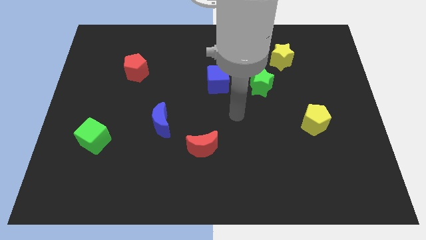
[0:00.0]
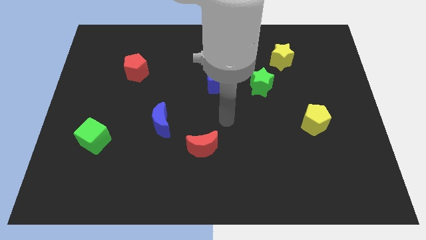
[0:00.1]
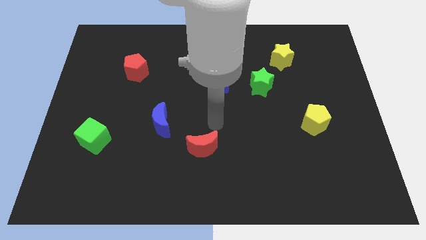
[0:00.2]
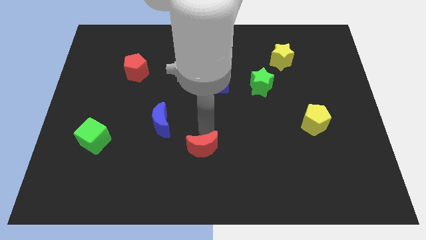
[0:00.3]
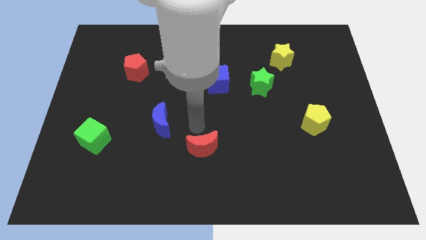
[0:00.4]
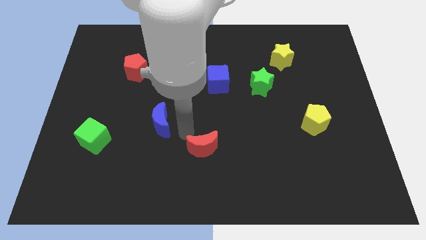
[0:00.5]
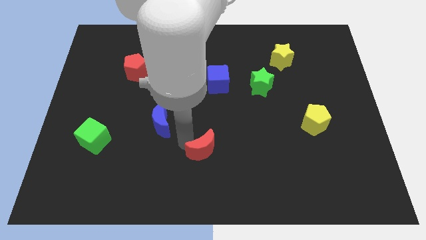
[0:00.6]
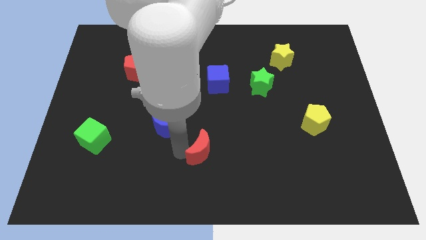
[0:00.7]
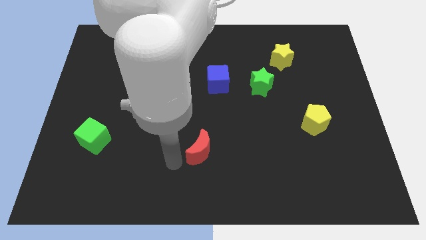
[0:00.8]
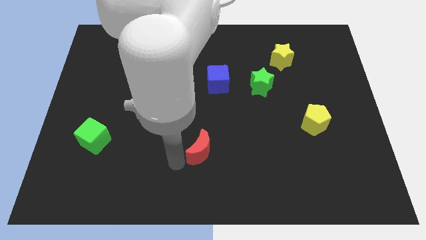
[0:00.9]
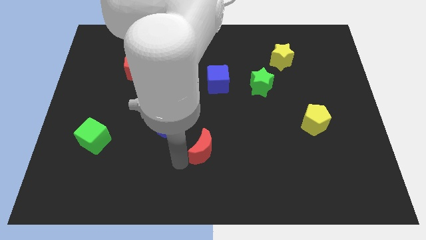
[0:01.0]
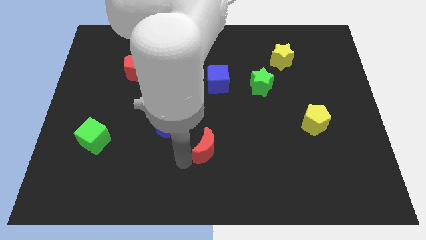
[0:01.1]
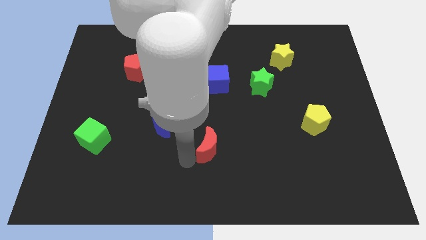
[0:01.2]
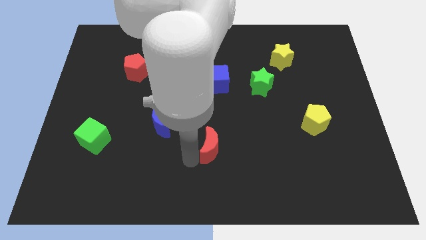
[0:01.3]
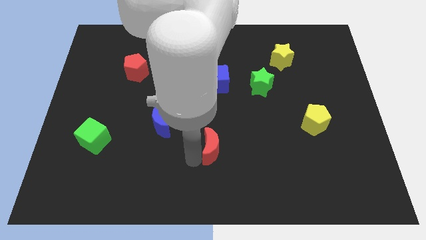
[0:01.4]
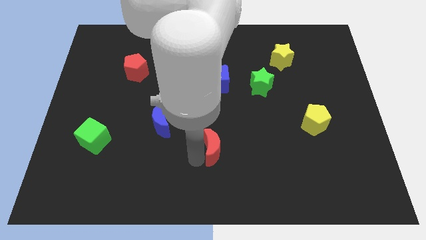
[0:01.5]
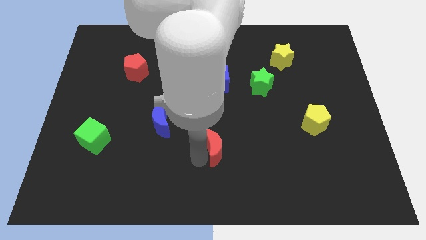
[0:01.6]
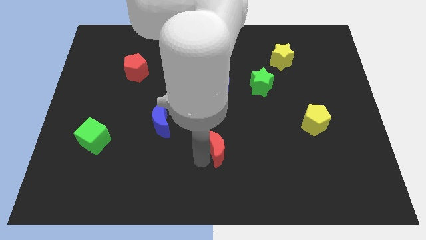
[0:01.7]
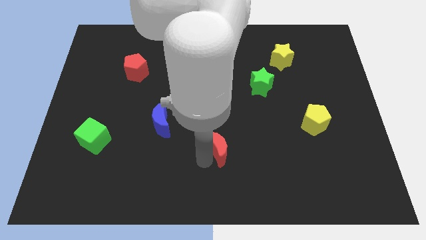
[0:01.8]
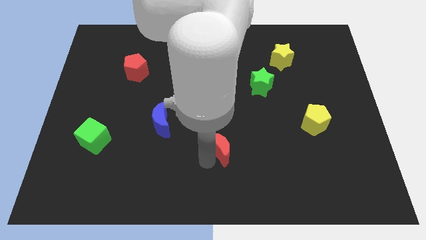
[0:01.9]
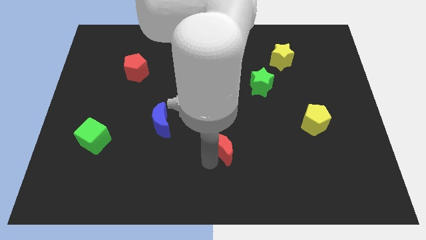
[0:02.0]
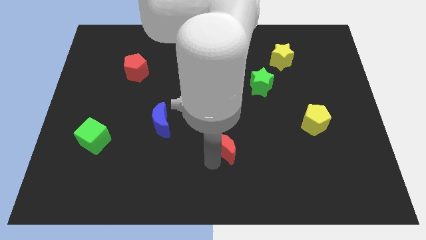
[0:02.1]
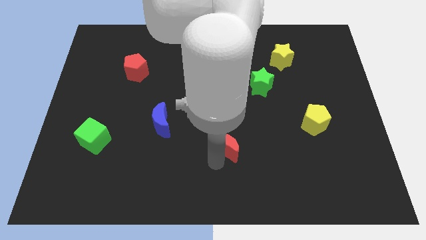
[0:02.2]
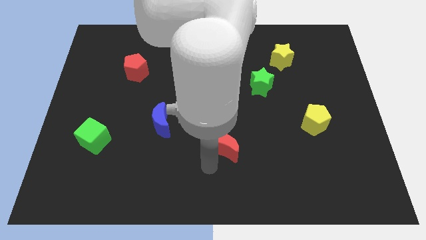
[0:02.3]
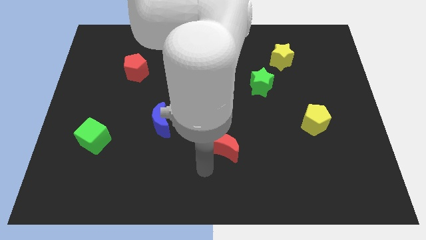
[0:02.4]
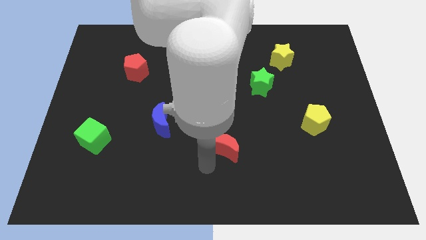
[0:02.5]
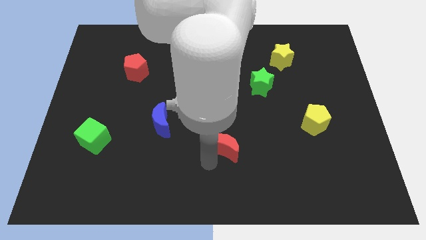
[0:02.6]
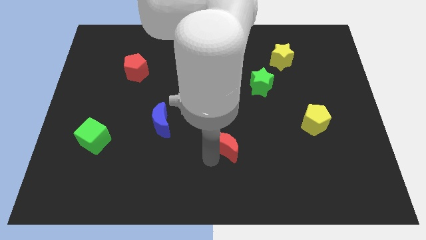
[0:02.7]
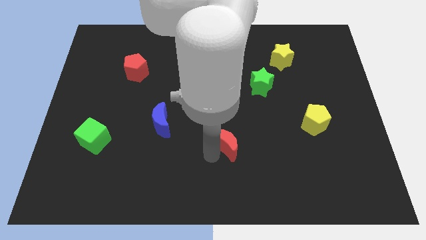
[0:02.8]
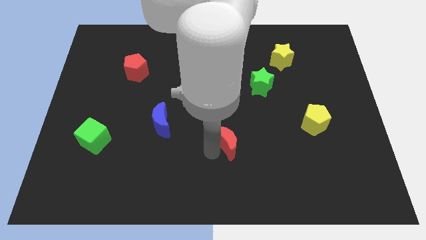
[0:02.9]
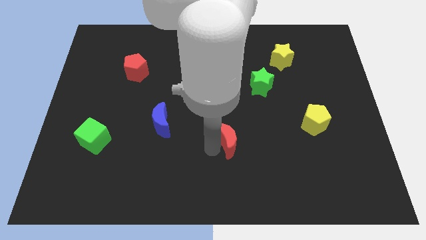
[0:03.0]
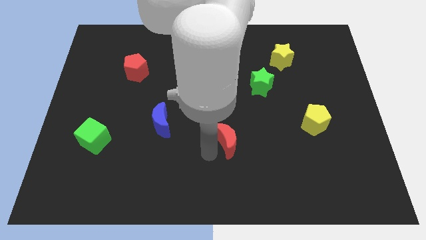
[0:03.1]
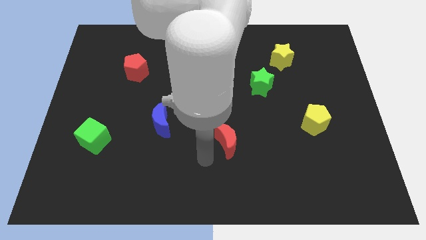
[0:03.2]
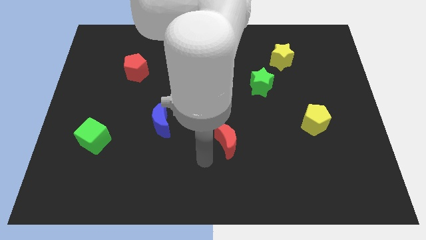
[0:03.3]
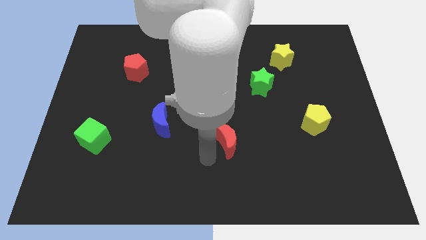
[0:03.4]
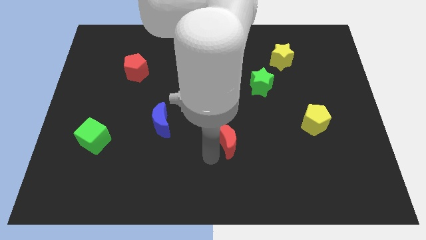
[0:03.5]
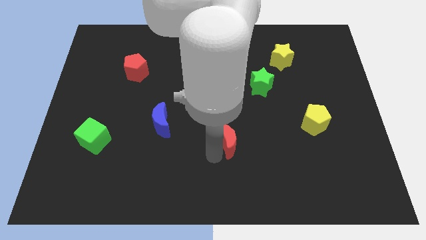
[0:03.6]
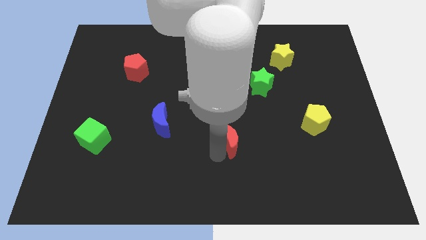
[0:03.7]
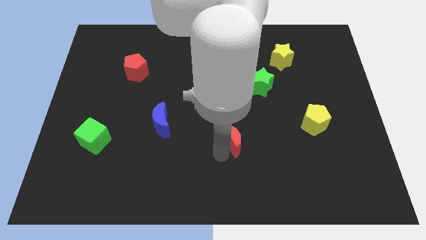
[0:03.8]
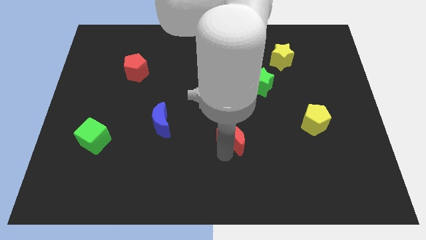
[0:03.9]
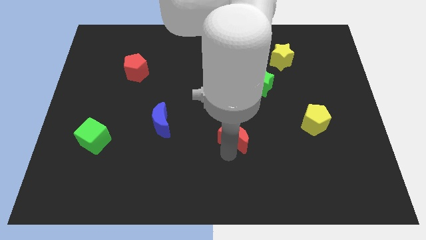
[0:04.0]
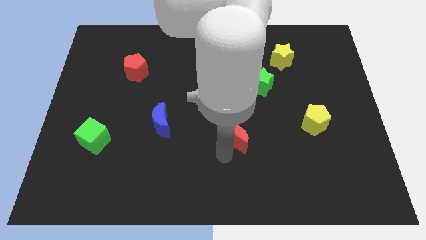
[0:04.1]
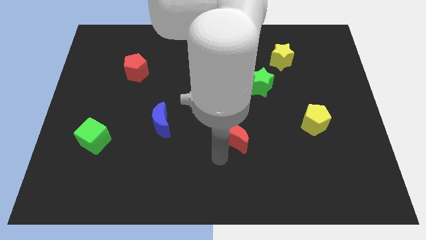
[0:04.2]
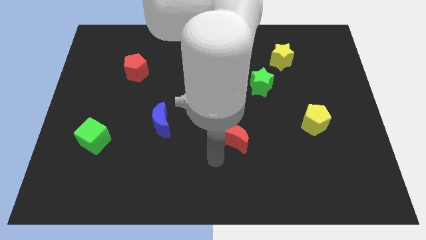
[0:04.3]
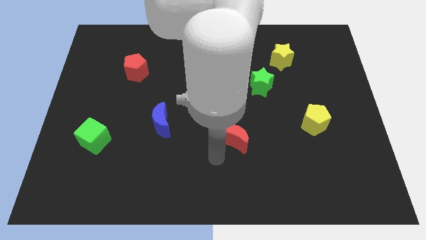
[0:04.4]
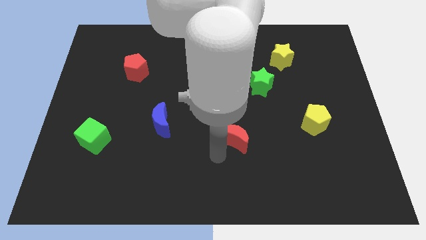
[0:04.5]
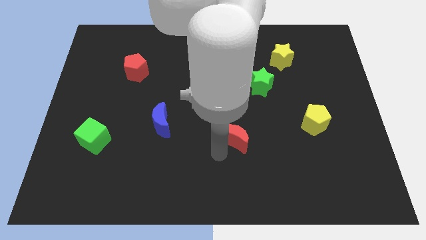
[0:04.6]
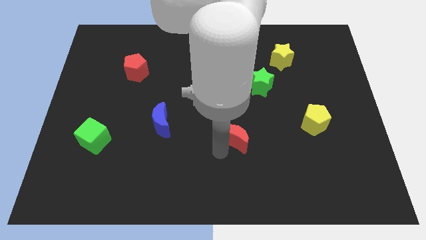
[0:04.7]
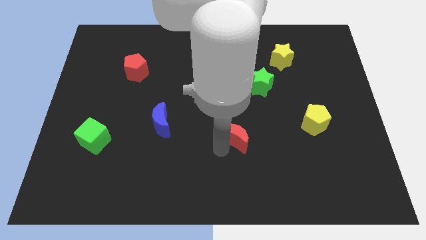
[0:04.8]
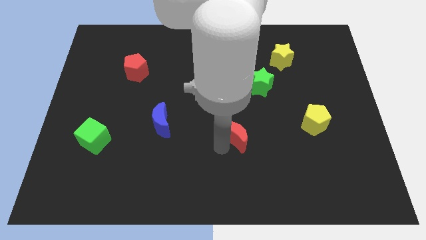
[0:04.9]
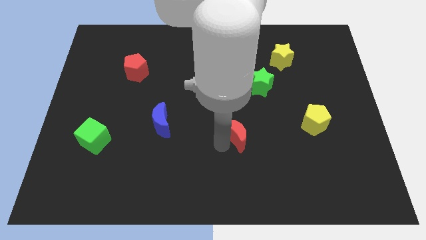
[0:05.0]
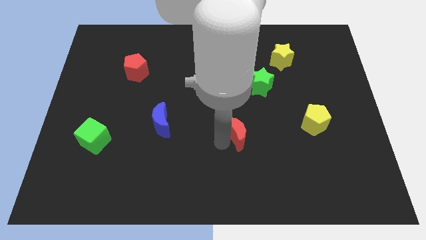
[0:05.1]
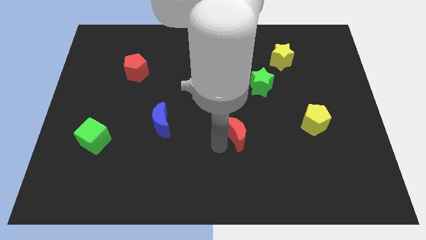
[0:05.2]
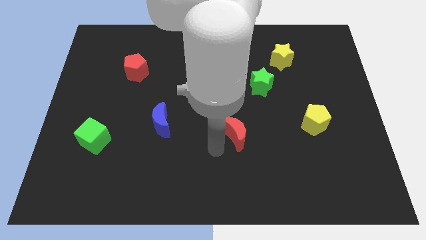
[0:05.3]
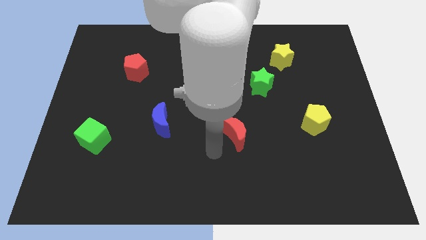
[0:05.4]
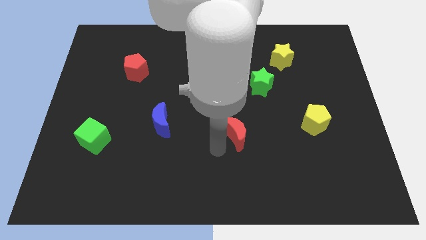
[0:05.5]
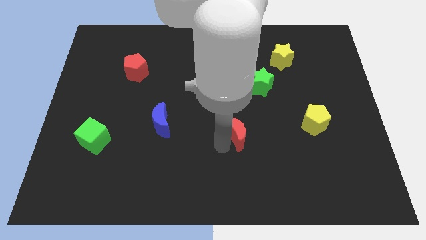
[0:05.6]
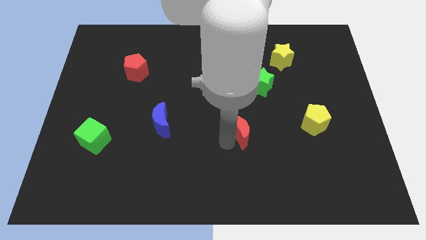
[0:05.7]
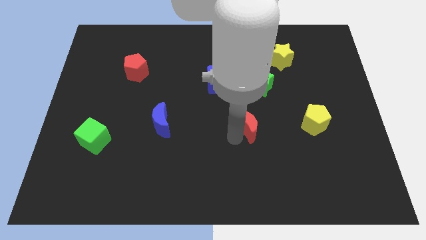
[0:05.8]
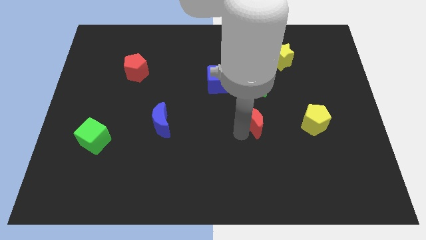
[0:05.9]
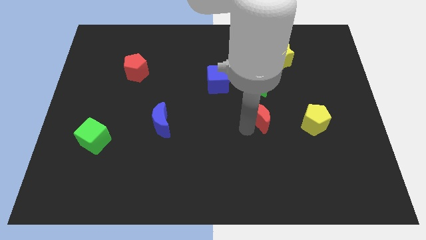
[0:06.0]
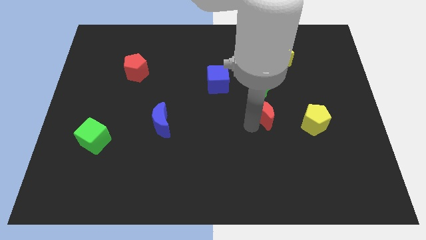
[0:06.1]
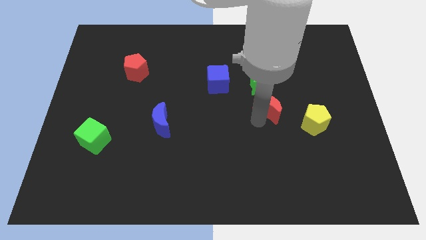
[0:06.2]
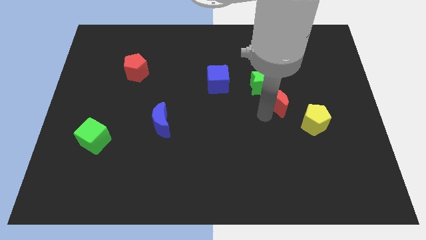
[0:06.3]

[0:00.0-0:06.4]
move the red moon diagonally up and to the right

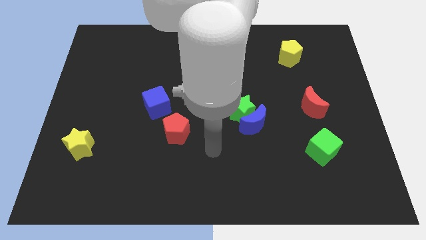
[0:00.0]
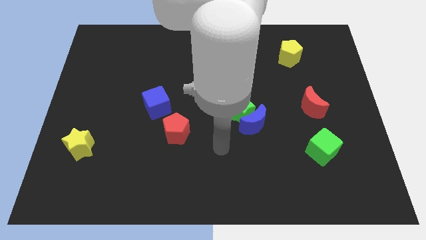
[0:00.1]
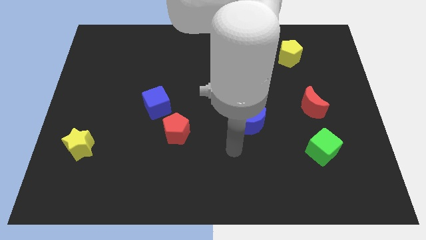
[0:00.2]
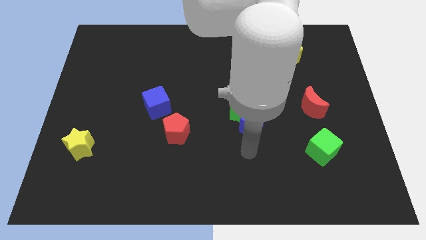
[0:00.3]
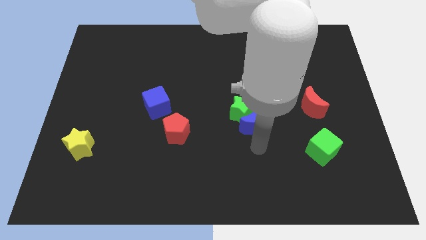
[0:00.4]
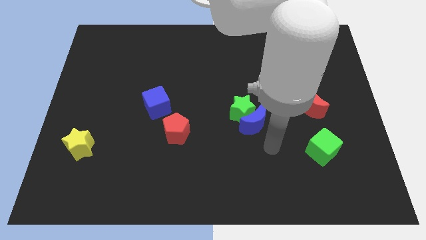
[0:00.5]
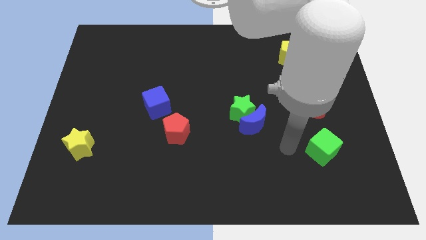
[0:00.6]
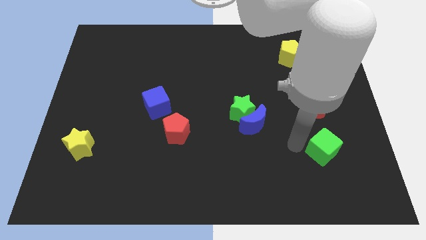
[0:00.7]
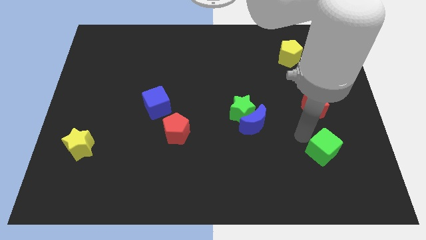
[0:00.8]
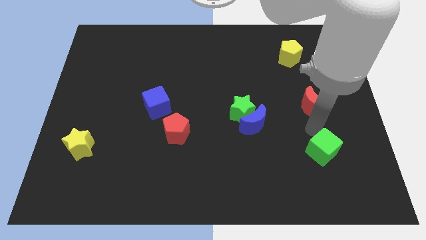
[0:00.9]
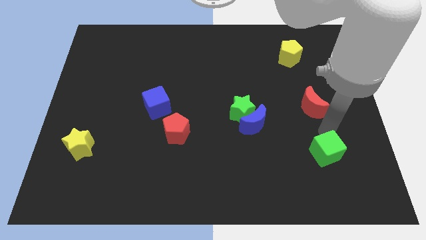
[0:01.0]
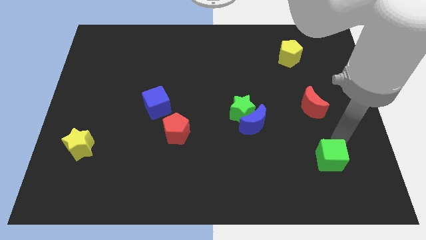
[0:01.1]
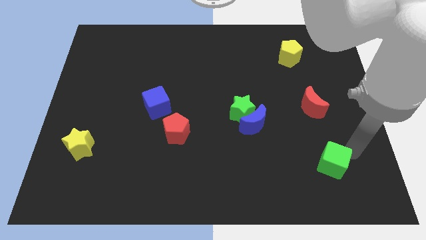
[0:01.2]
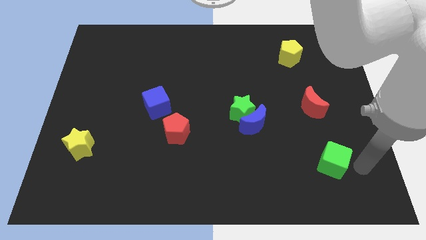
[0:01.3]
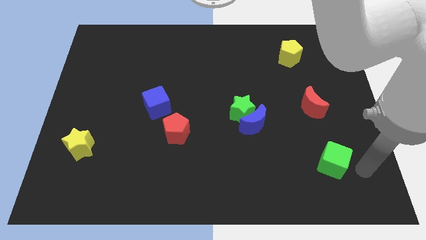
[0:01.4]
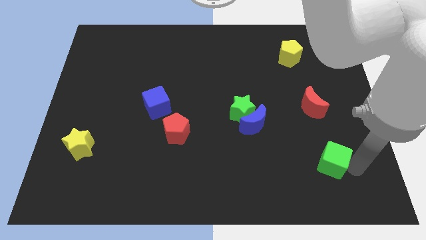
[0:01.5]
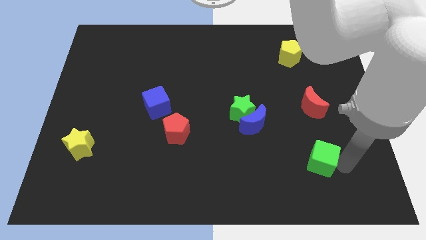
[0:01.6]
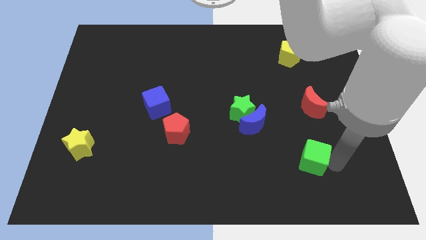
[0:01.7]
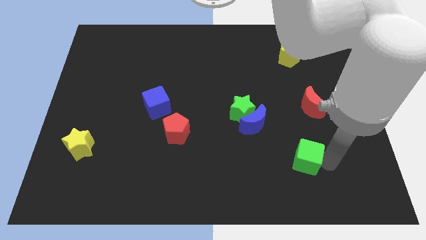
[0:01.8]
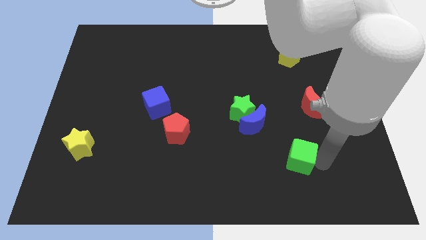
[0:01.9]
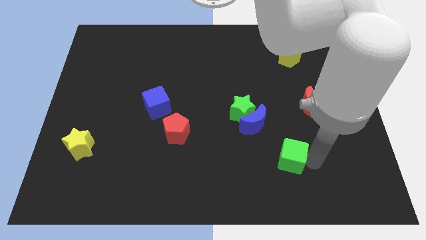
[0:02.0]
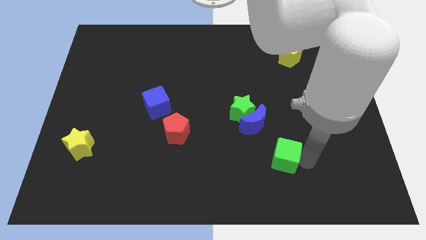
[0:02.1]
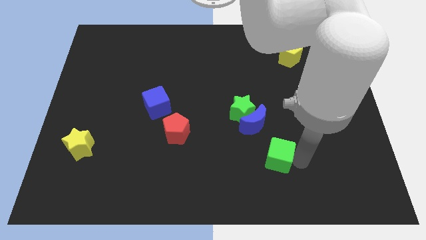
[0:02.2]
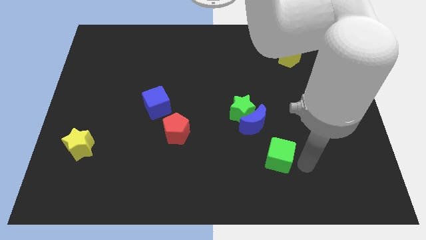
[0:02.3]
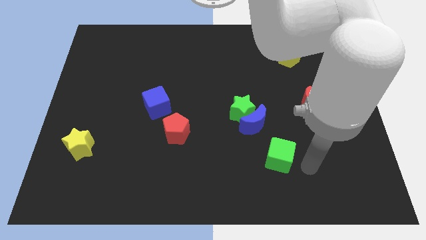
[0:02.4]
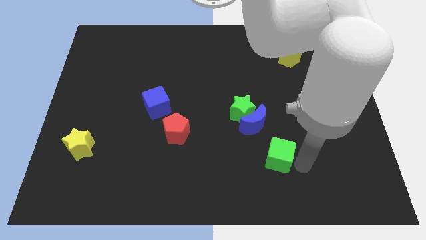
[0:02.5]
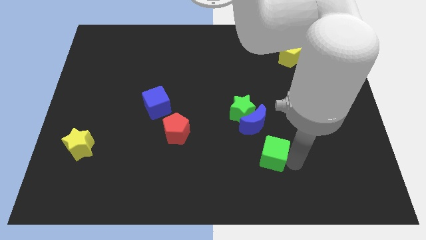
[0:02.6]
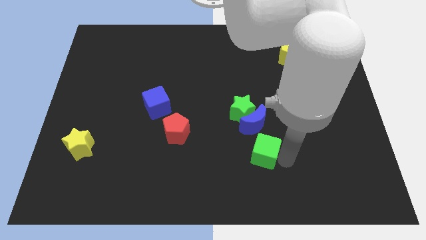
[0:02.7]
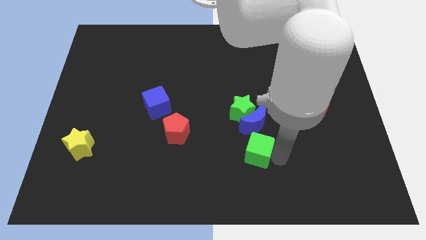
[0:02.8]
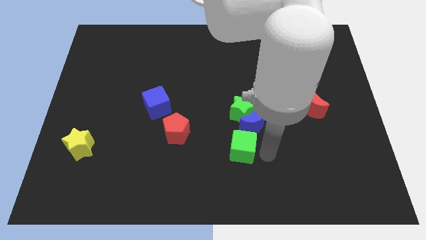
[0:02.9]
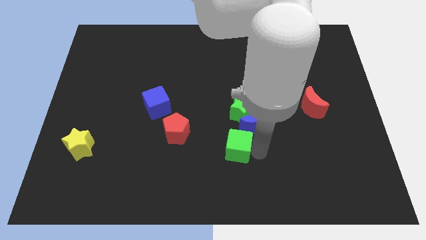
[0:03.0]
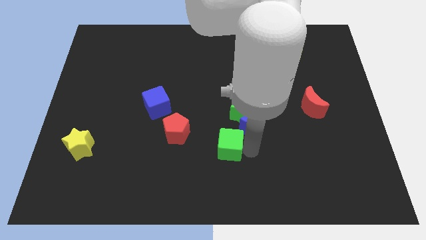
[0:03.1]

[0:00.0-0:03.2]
push the green cube to the left
